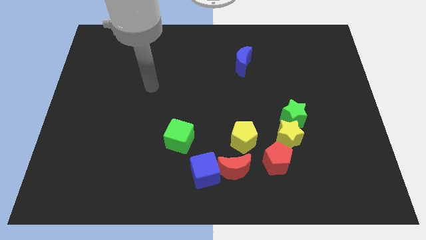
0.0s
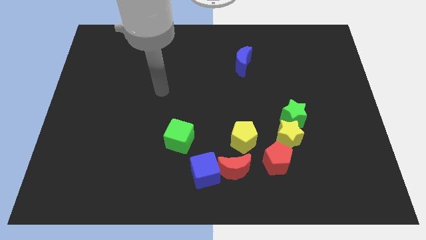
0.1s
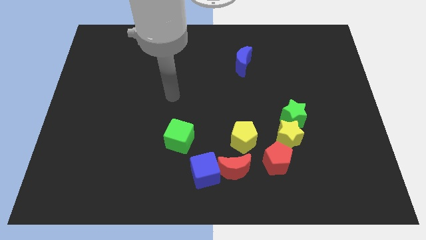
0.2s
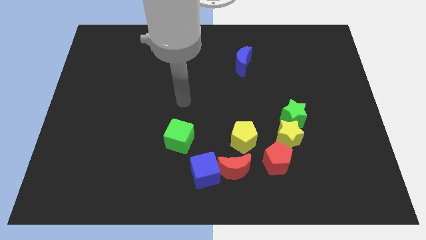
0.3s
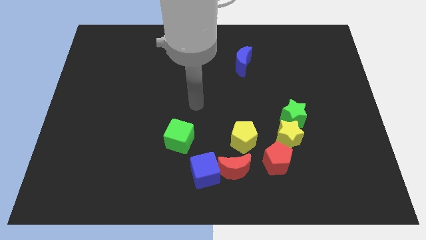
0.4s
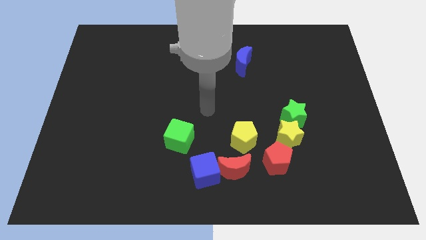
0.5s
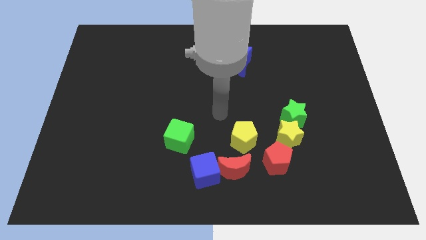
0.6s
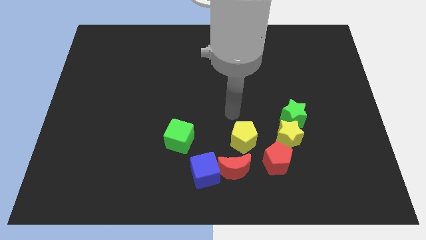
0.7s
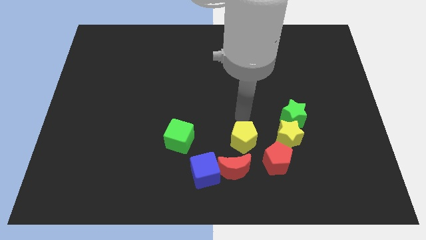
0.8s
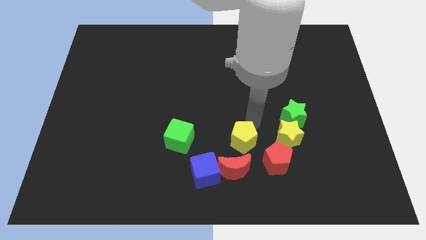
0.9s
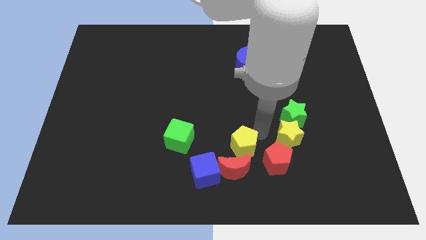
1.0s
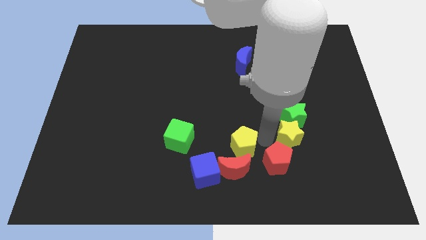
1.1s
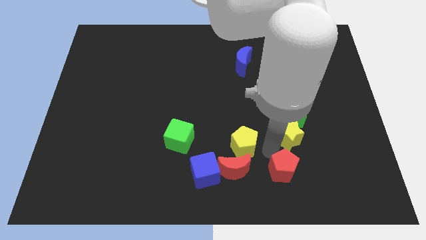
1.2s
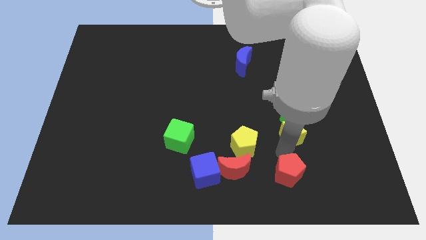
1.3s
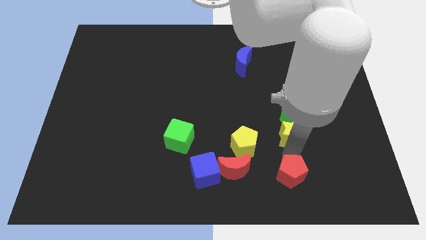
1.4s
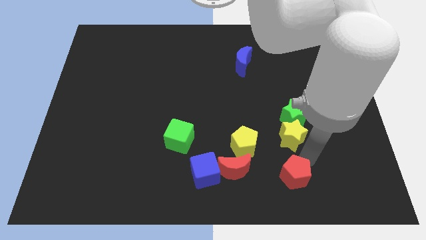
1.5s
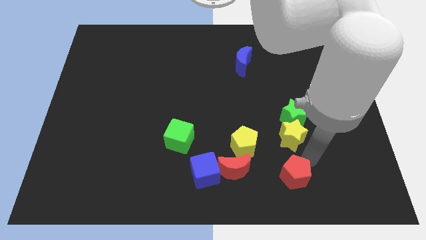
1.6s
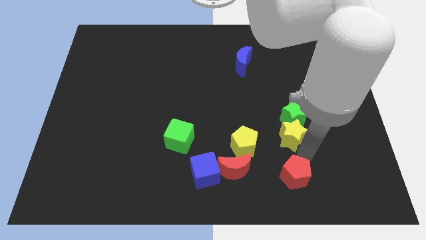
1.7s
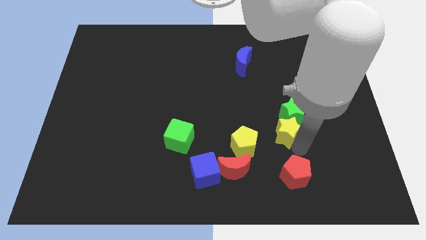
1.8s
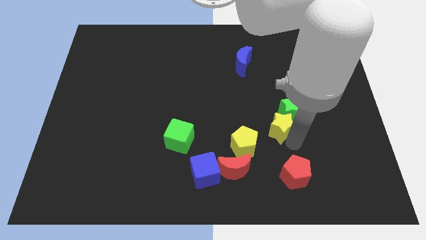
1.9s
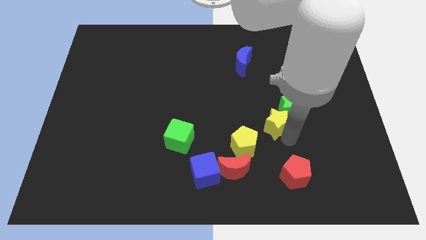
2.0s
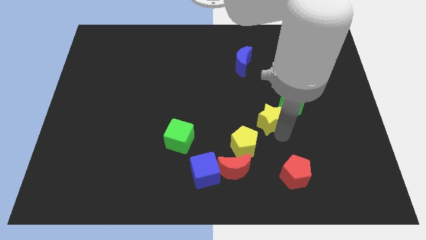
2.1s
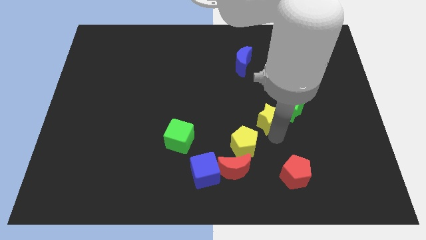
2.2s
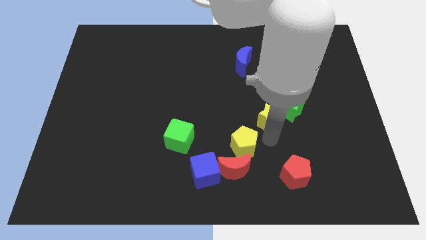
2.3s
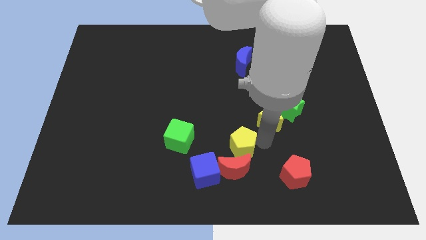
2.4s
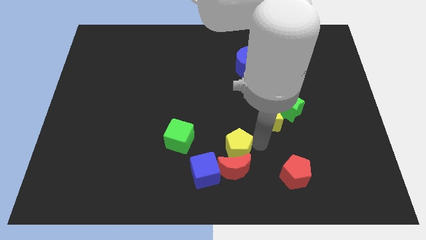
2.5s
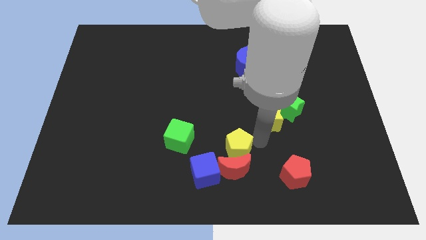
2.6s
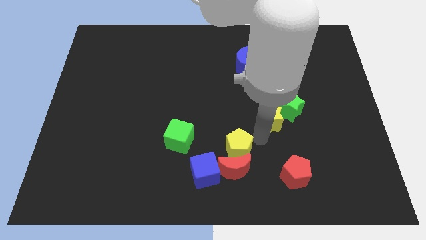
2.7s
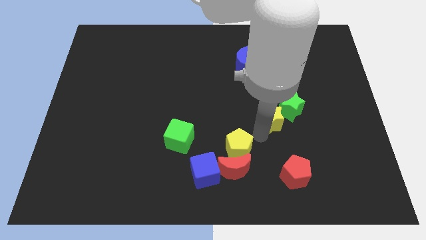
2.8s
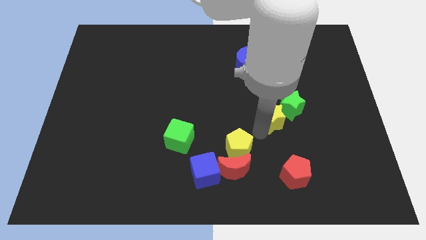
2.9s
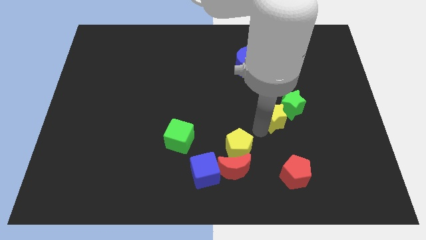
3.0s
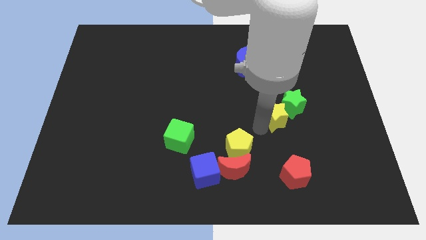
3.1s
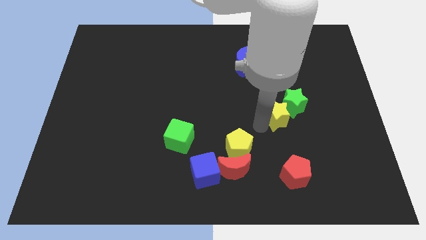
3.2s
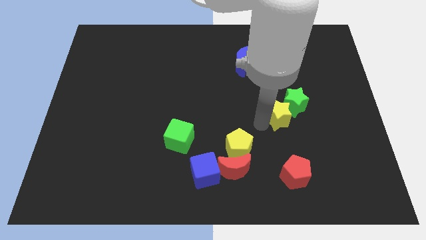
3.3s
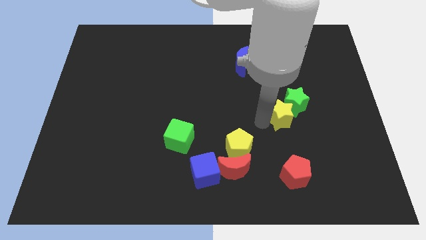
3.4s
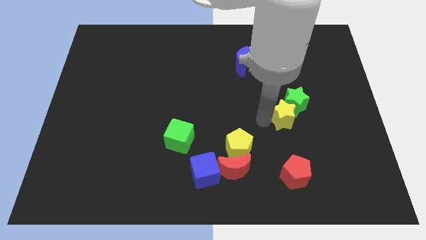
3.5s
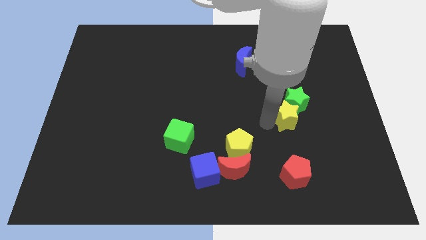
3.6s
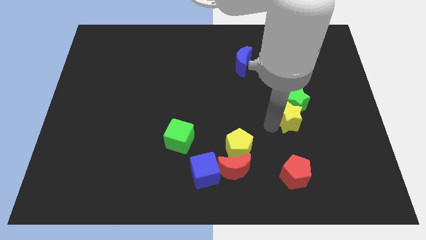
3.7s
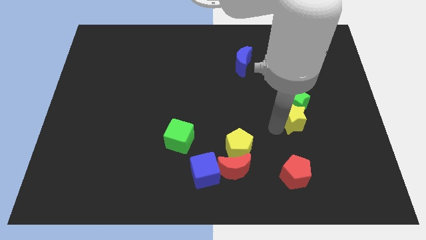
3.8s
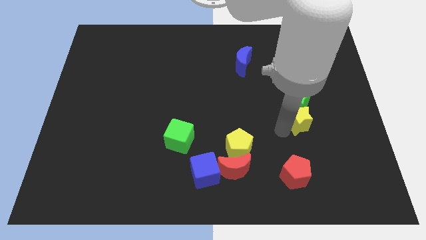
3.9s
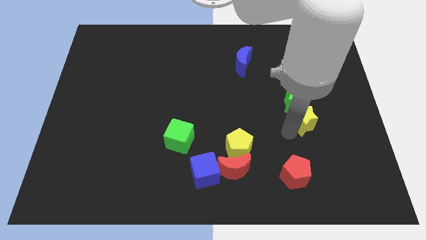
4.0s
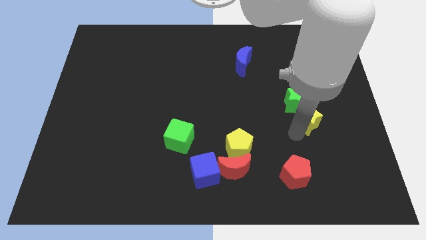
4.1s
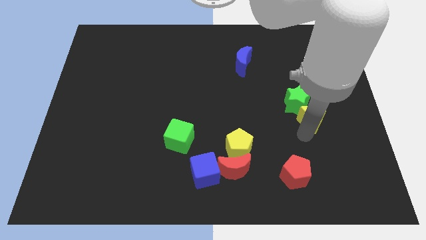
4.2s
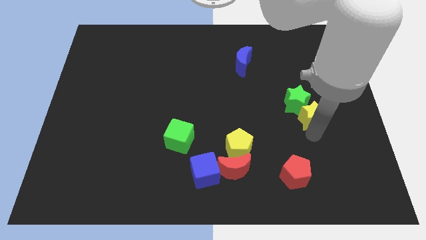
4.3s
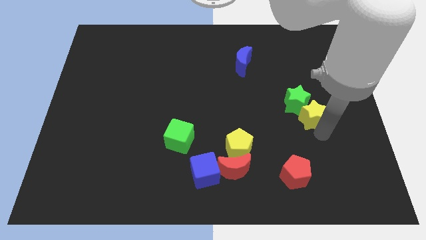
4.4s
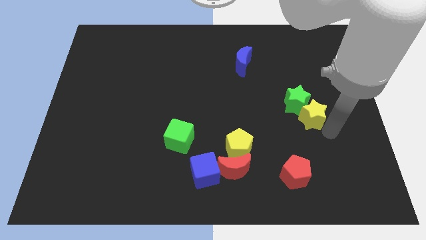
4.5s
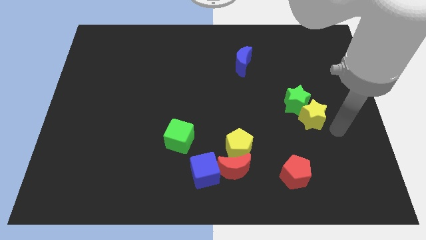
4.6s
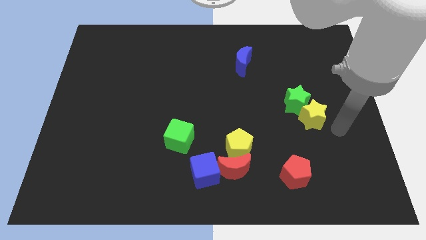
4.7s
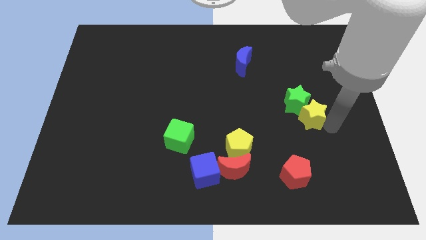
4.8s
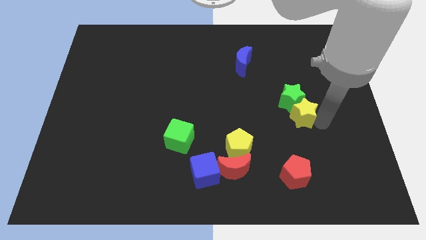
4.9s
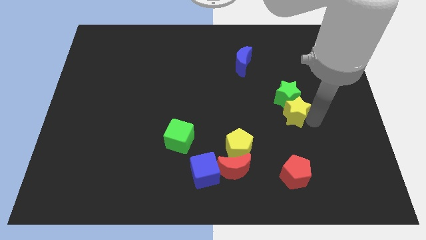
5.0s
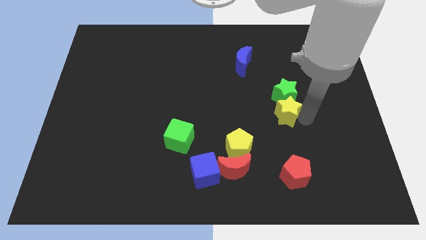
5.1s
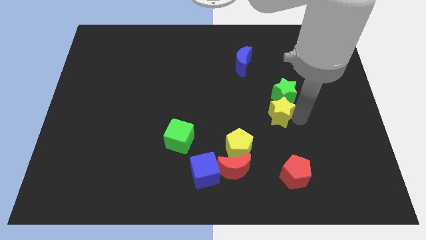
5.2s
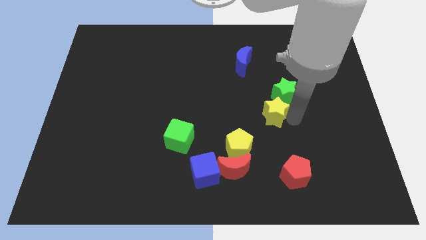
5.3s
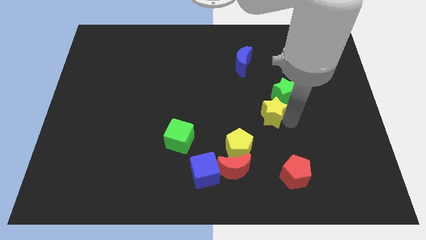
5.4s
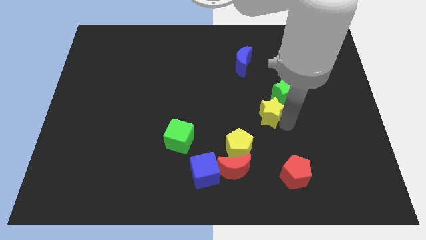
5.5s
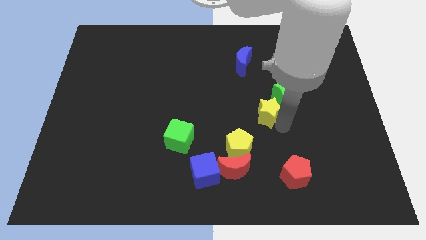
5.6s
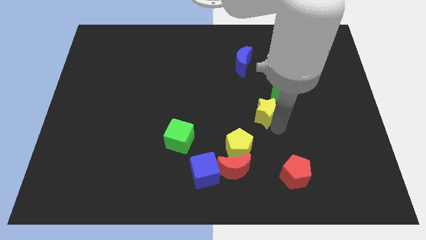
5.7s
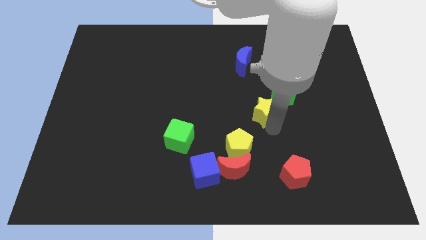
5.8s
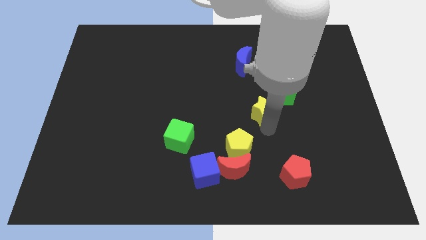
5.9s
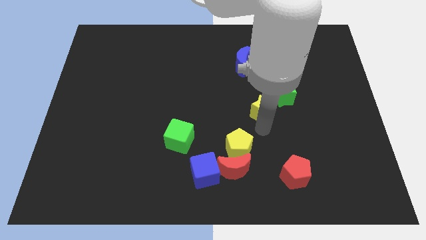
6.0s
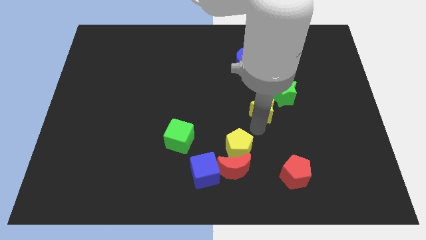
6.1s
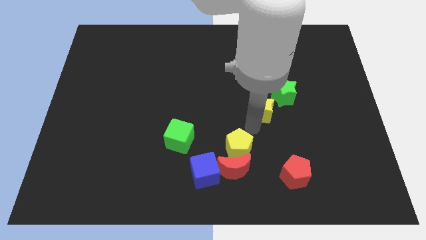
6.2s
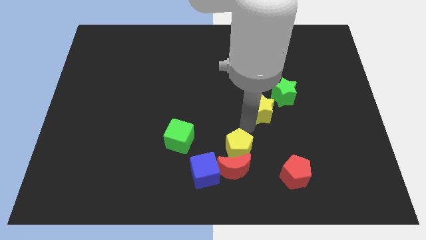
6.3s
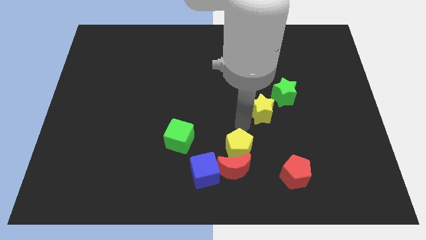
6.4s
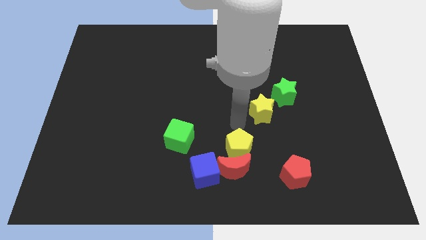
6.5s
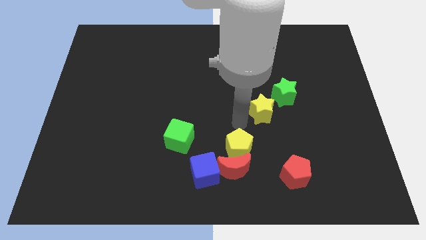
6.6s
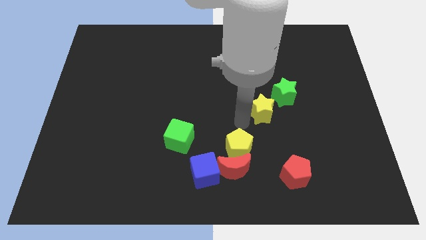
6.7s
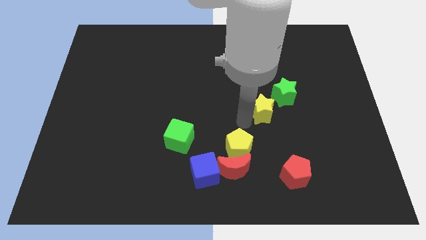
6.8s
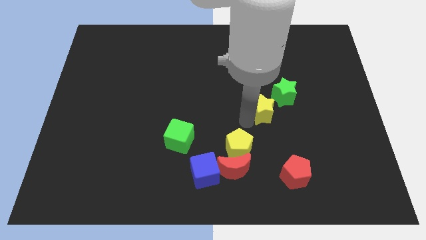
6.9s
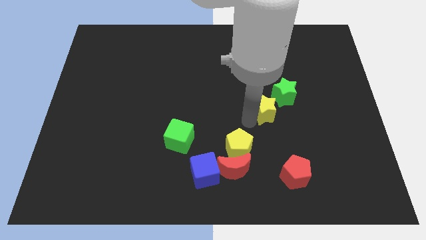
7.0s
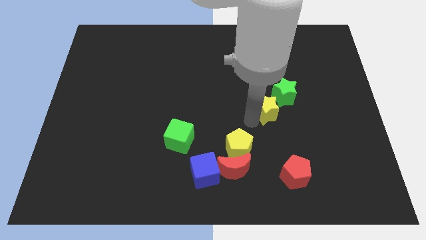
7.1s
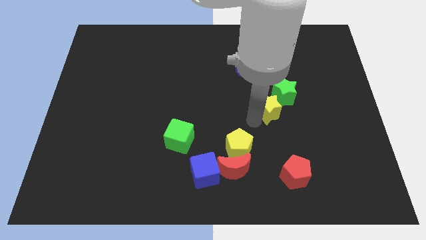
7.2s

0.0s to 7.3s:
slide the yellow star slightly up

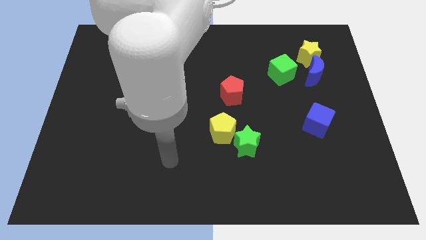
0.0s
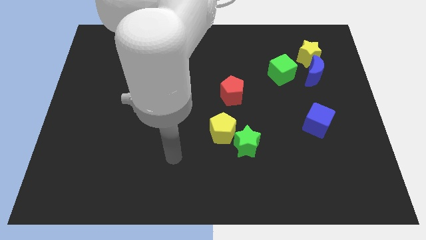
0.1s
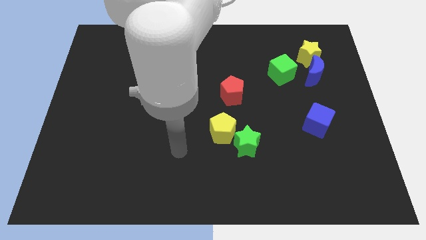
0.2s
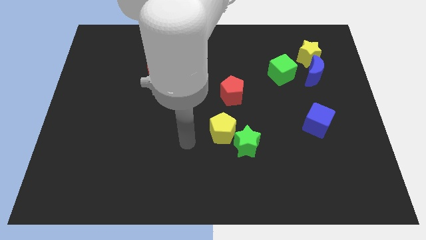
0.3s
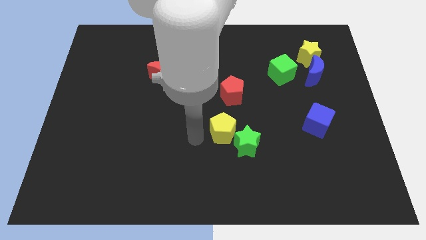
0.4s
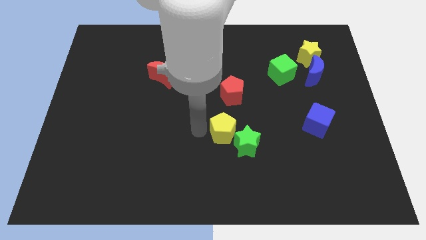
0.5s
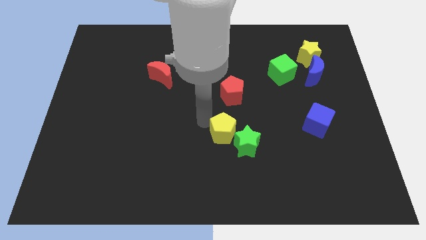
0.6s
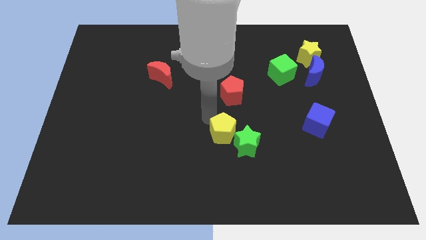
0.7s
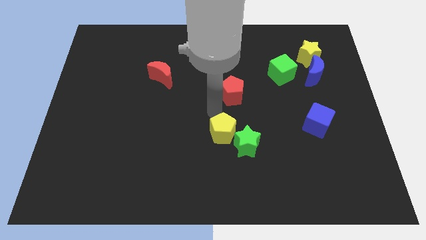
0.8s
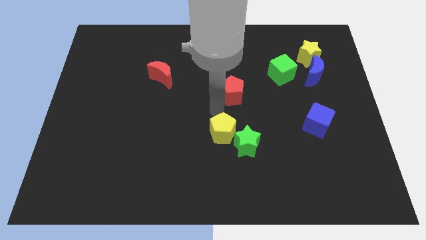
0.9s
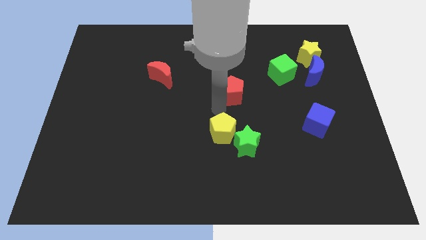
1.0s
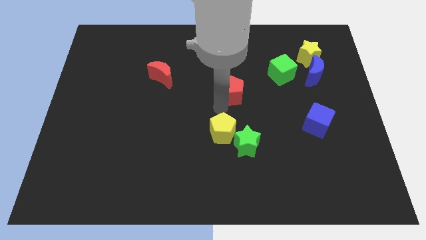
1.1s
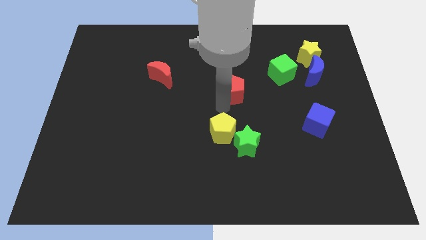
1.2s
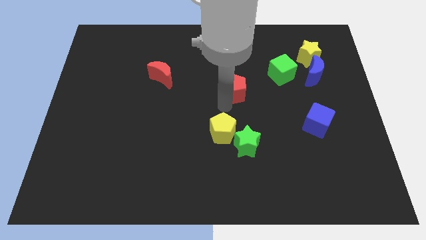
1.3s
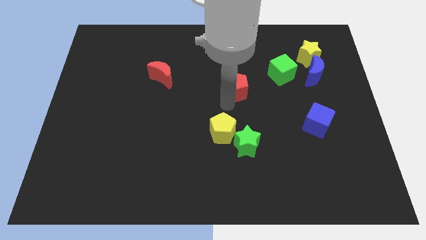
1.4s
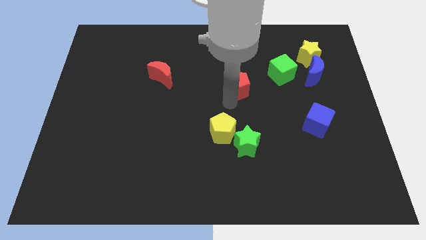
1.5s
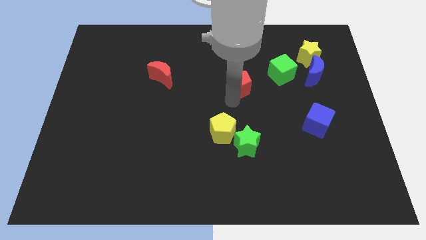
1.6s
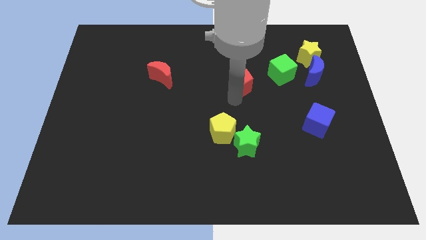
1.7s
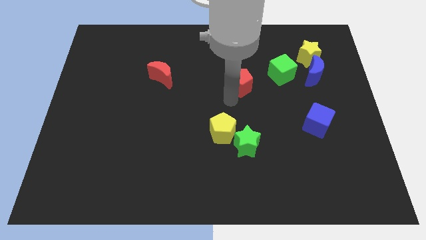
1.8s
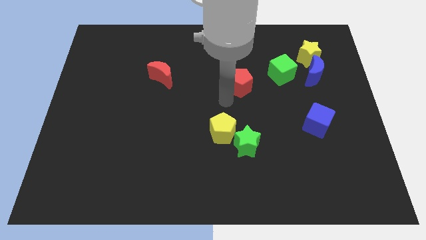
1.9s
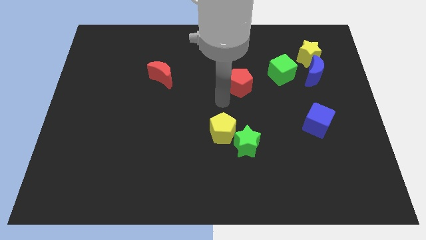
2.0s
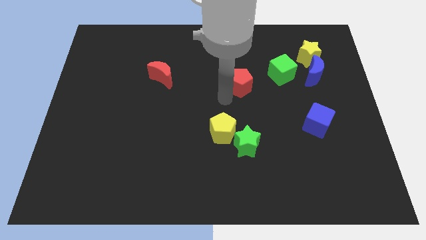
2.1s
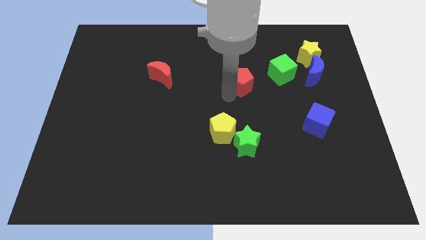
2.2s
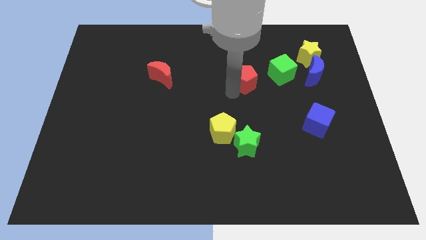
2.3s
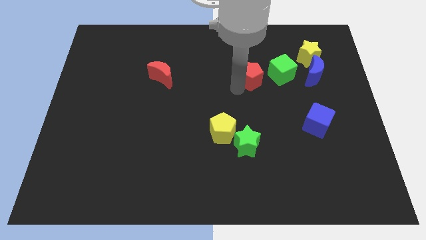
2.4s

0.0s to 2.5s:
move the red pentagon up and then to the right a little bit
